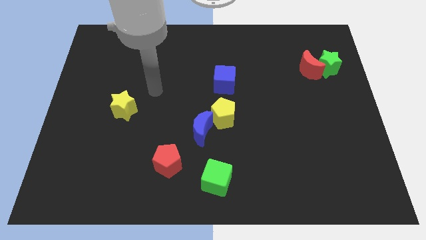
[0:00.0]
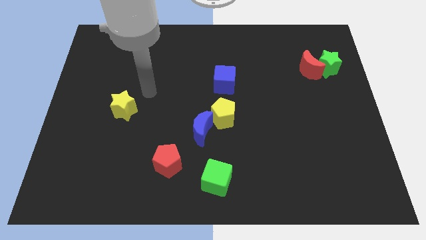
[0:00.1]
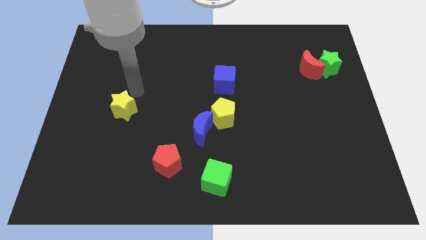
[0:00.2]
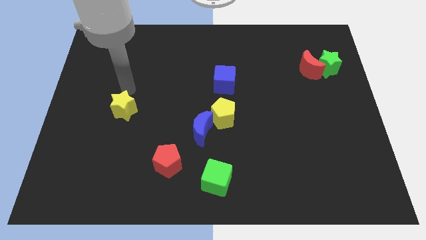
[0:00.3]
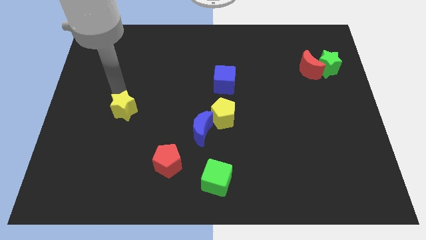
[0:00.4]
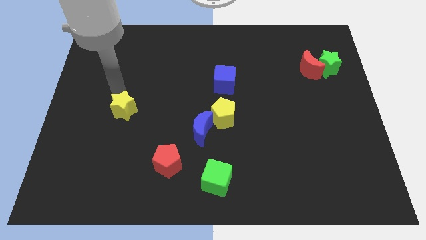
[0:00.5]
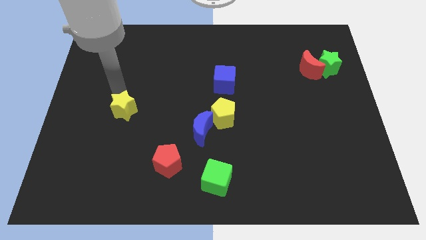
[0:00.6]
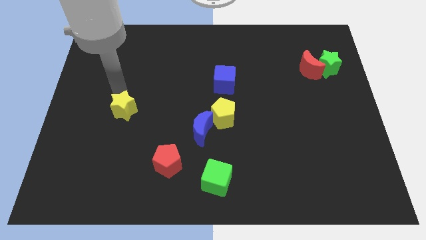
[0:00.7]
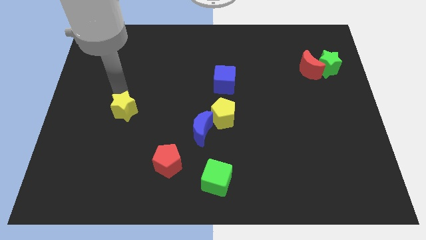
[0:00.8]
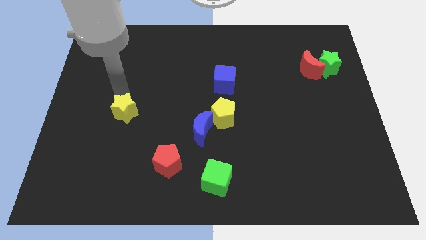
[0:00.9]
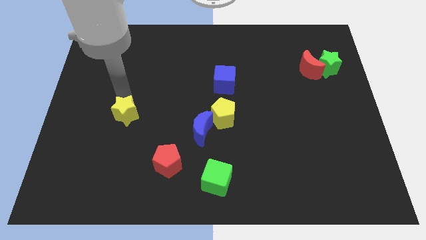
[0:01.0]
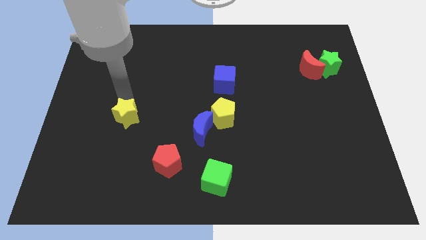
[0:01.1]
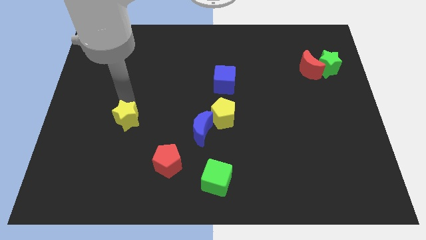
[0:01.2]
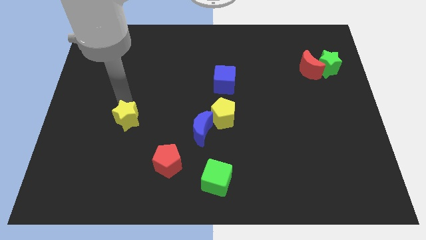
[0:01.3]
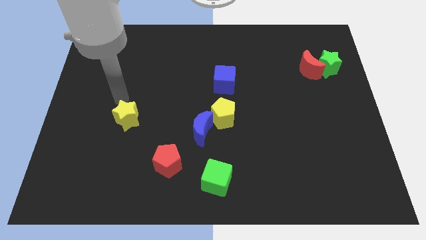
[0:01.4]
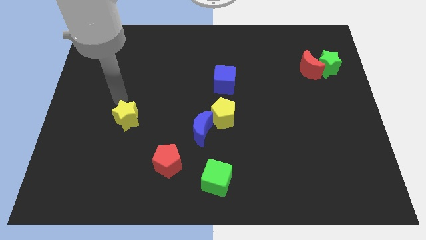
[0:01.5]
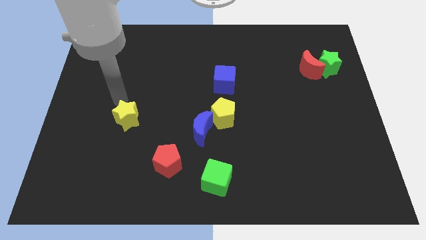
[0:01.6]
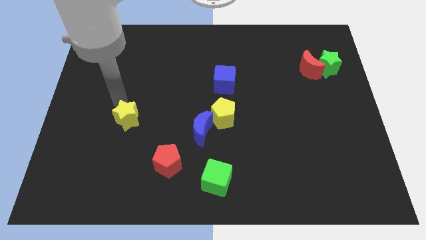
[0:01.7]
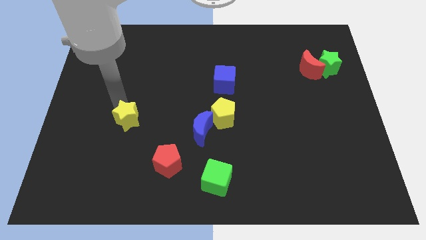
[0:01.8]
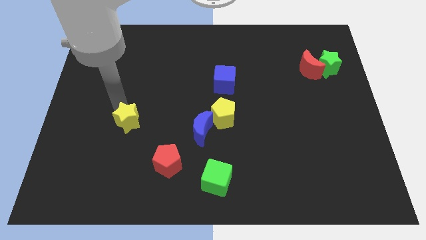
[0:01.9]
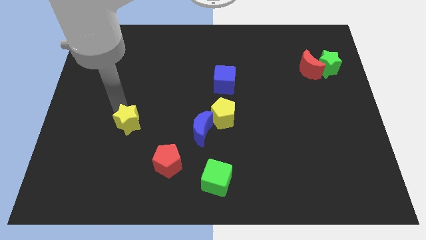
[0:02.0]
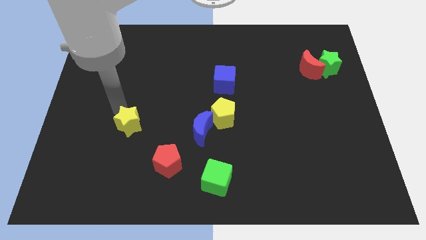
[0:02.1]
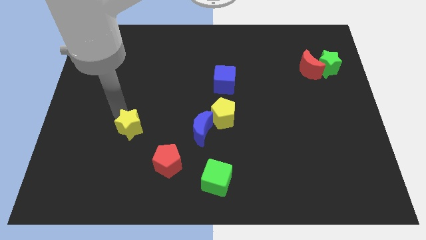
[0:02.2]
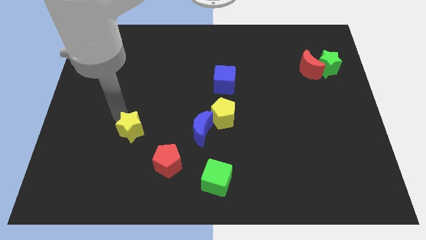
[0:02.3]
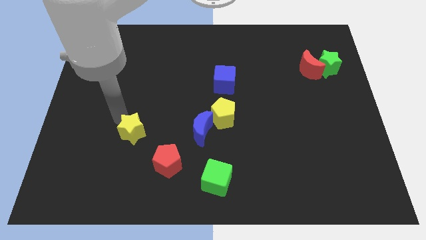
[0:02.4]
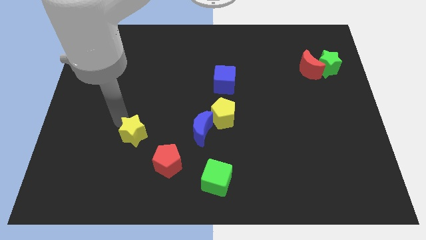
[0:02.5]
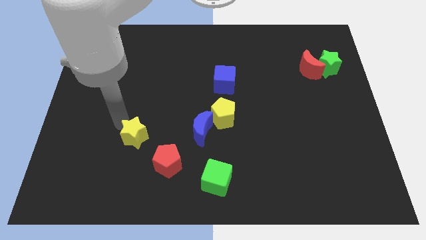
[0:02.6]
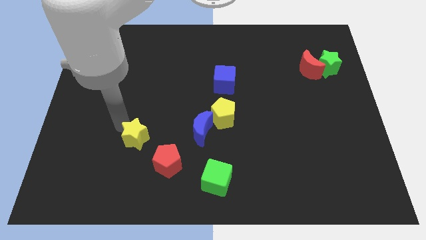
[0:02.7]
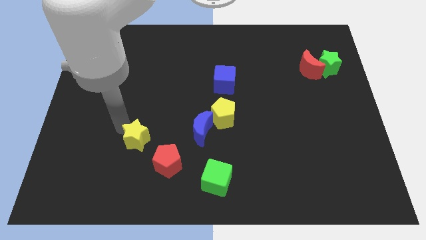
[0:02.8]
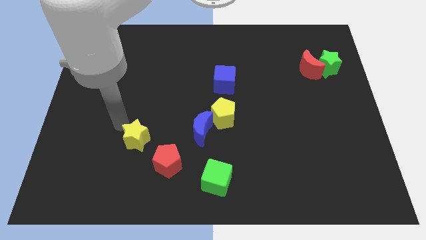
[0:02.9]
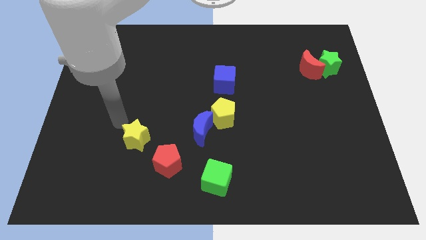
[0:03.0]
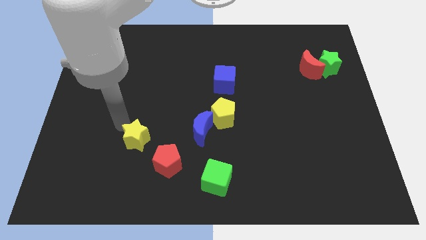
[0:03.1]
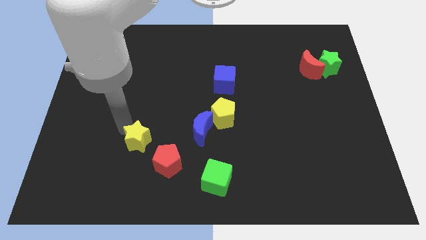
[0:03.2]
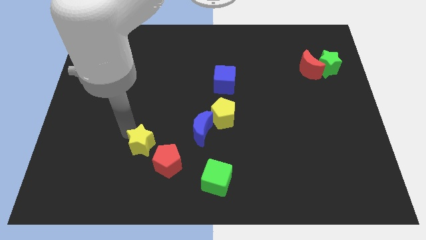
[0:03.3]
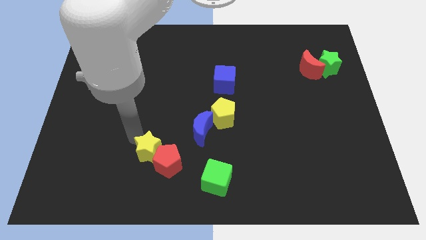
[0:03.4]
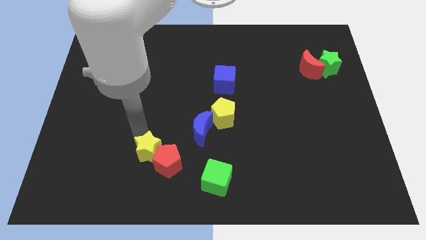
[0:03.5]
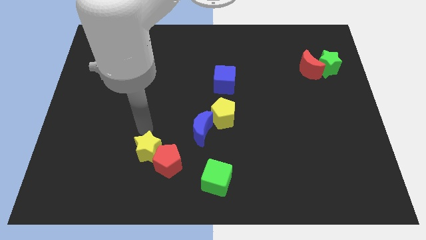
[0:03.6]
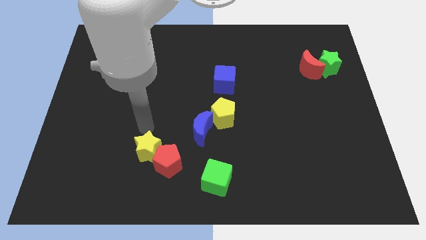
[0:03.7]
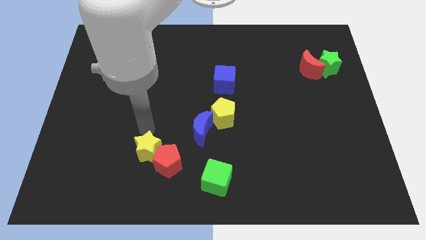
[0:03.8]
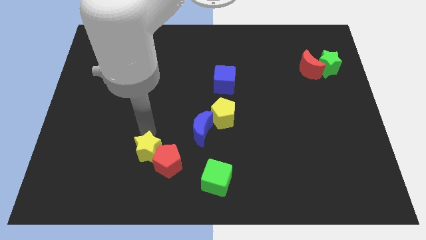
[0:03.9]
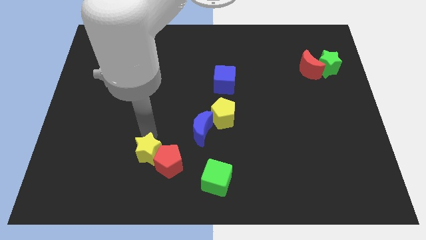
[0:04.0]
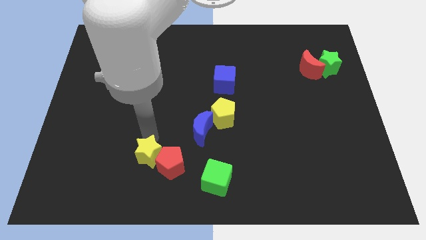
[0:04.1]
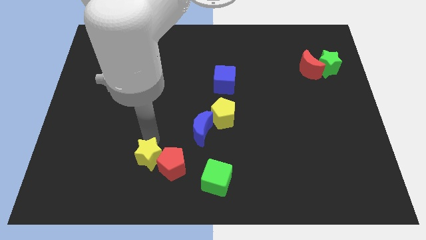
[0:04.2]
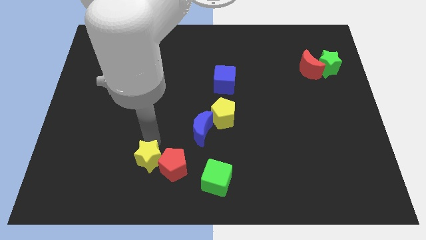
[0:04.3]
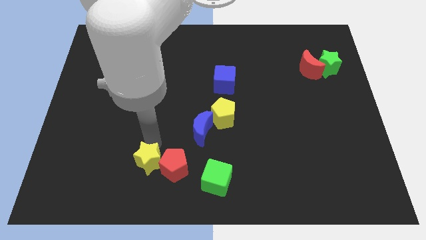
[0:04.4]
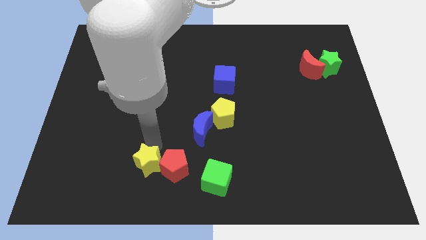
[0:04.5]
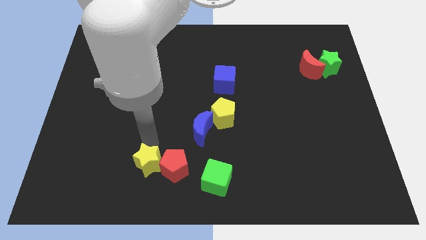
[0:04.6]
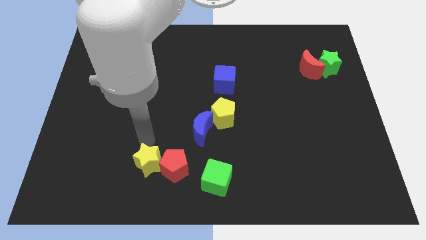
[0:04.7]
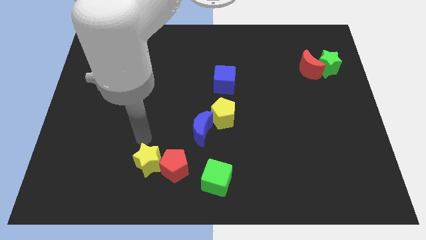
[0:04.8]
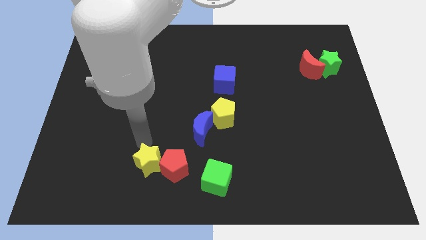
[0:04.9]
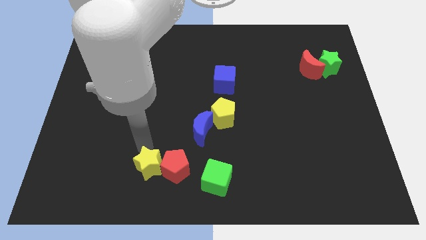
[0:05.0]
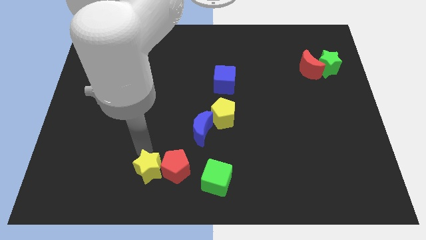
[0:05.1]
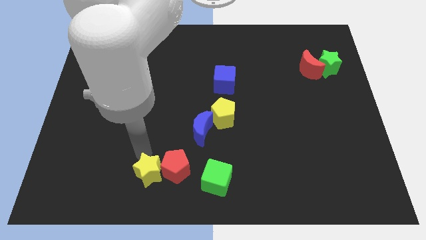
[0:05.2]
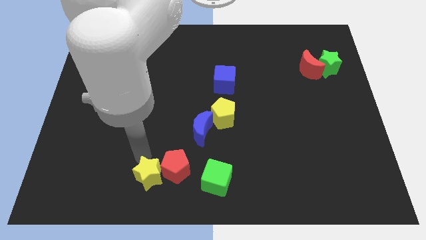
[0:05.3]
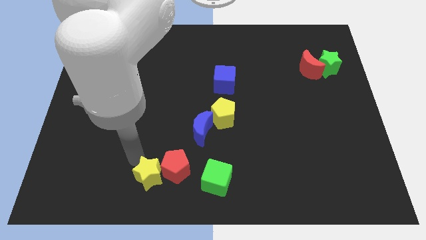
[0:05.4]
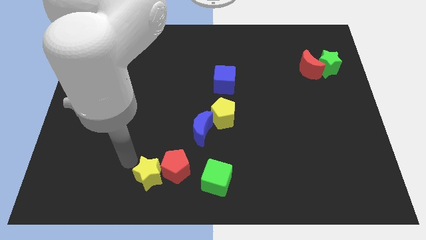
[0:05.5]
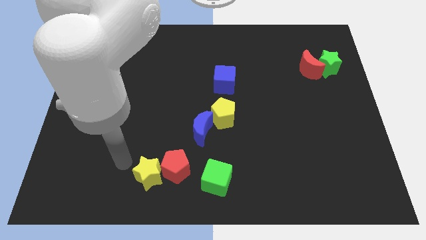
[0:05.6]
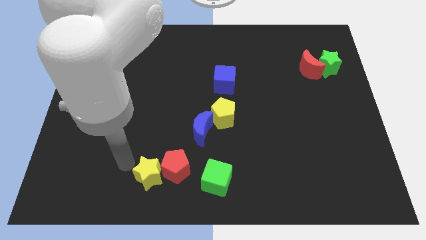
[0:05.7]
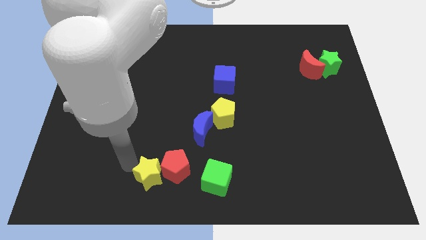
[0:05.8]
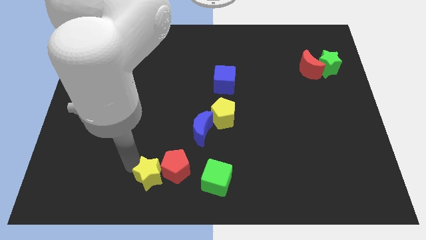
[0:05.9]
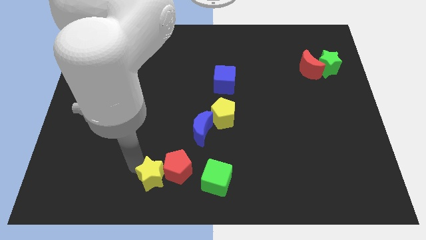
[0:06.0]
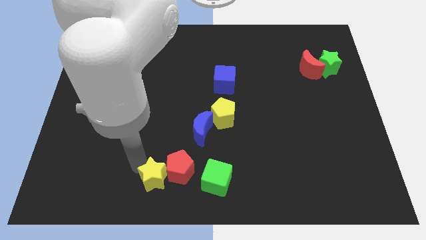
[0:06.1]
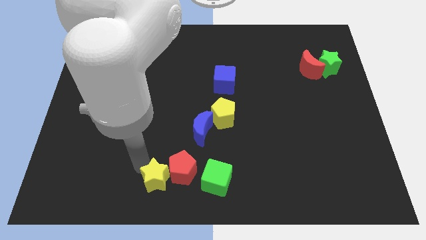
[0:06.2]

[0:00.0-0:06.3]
slide the yellow star to the bottom side
